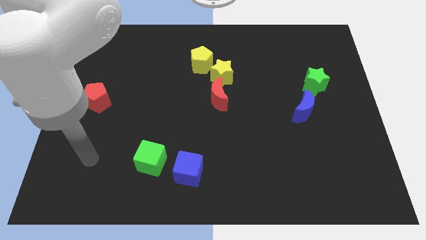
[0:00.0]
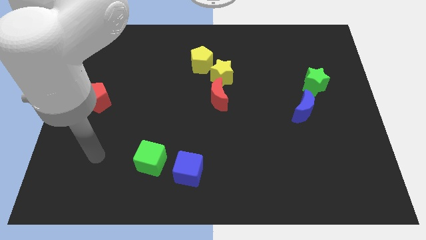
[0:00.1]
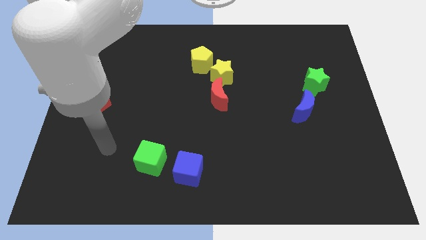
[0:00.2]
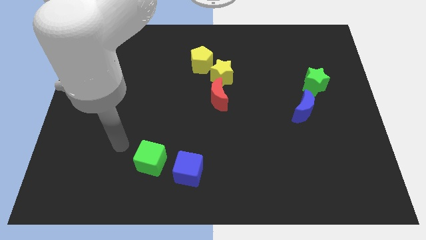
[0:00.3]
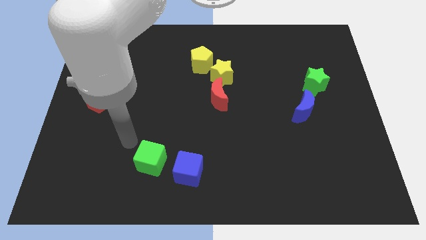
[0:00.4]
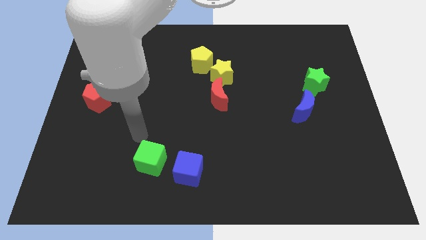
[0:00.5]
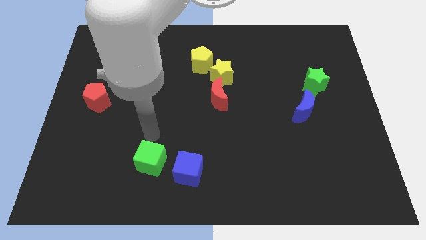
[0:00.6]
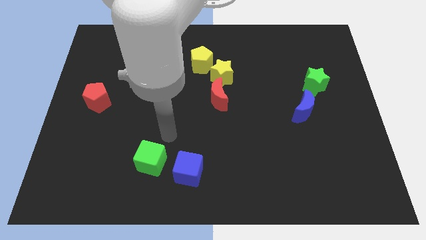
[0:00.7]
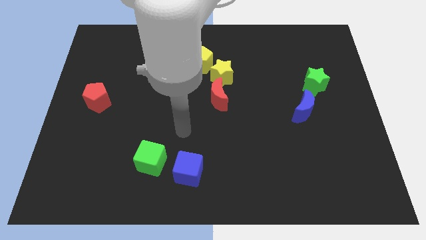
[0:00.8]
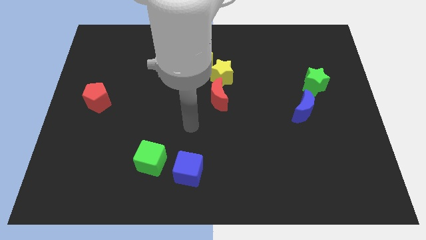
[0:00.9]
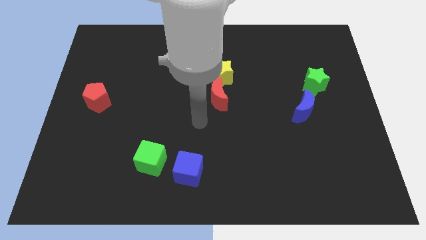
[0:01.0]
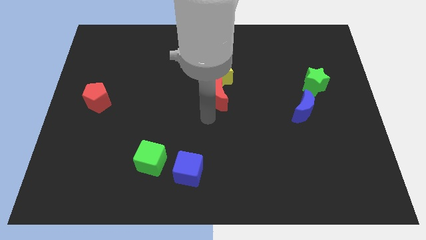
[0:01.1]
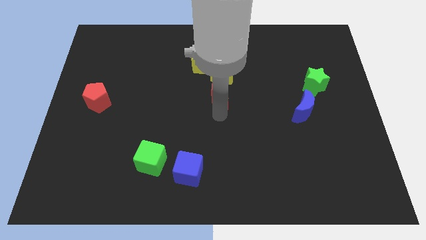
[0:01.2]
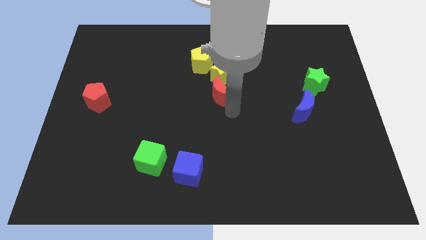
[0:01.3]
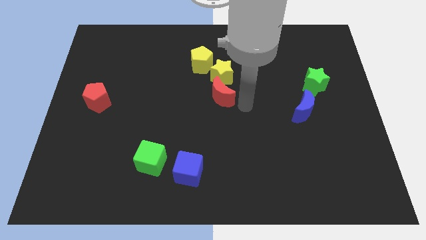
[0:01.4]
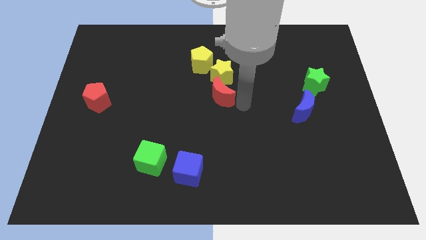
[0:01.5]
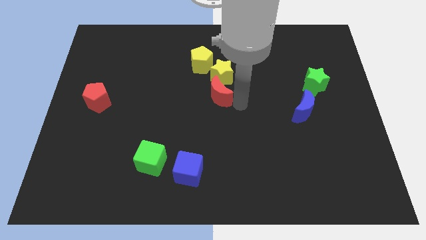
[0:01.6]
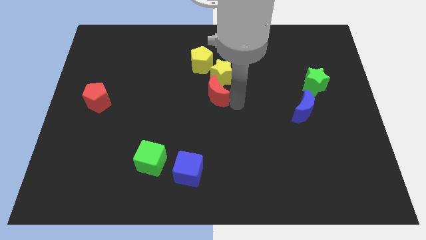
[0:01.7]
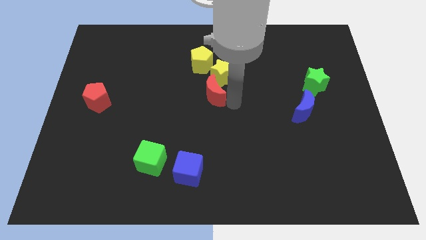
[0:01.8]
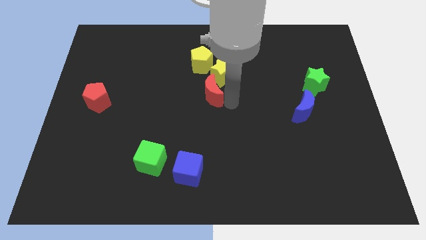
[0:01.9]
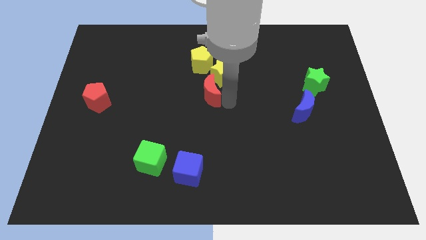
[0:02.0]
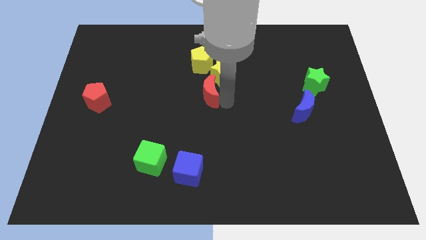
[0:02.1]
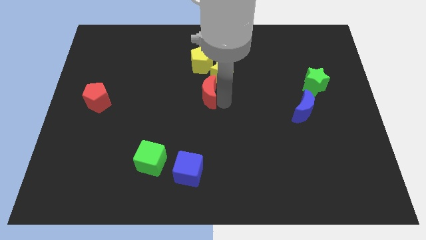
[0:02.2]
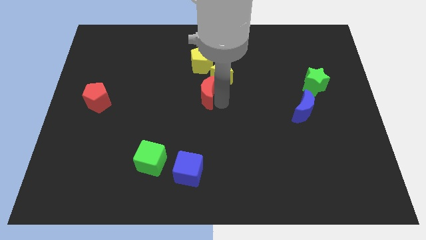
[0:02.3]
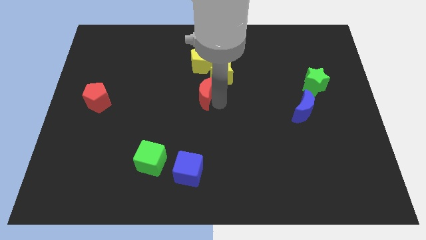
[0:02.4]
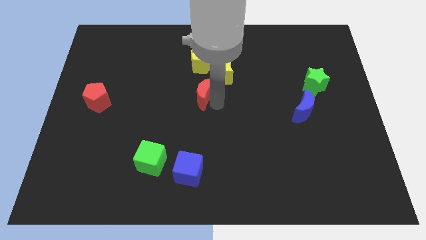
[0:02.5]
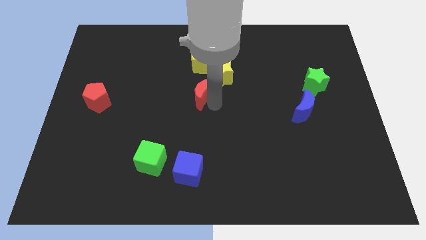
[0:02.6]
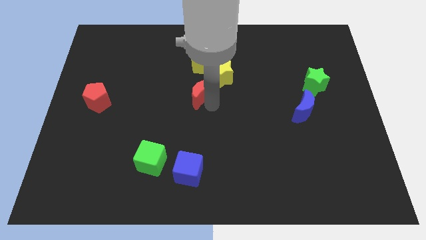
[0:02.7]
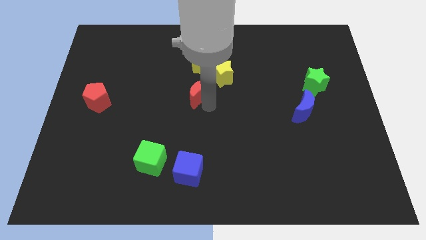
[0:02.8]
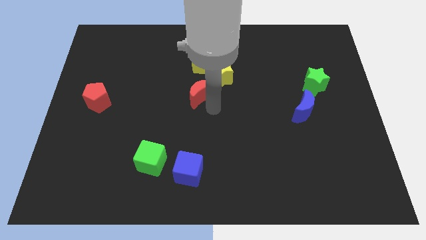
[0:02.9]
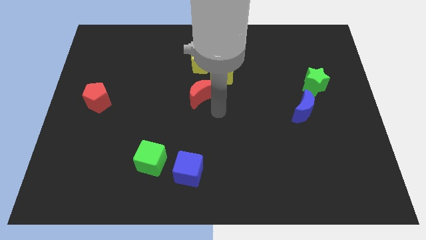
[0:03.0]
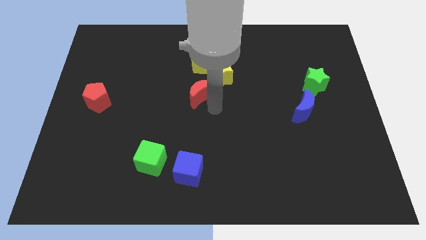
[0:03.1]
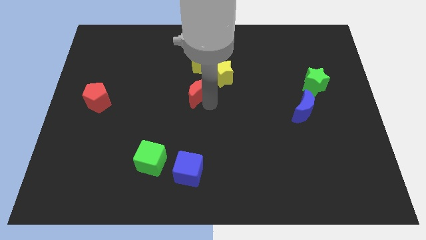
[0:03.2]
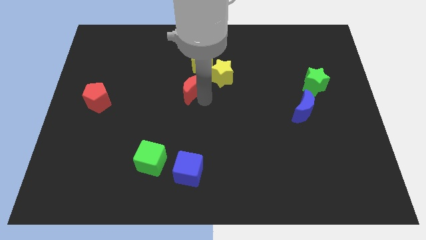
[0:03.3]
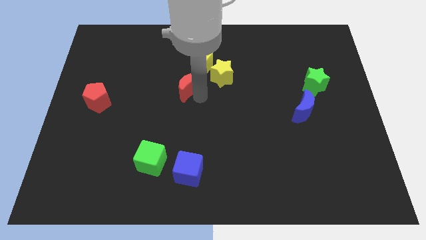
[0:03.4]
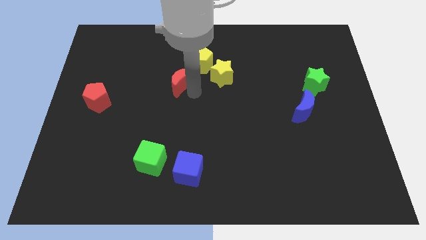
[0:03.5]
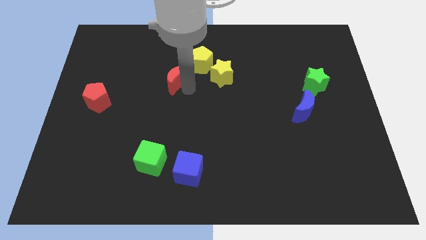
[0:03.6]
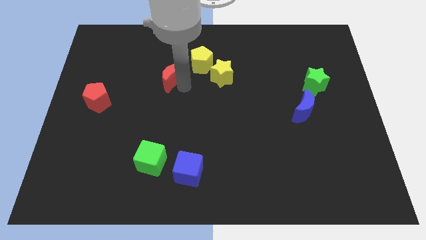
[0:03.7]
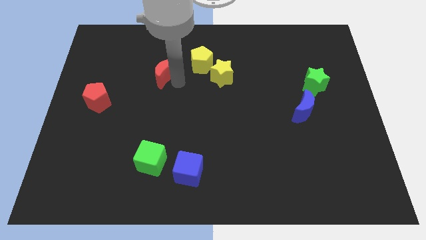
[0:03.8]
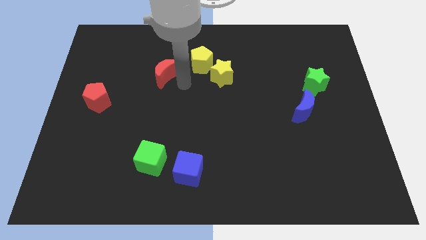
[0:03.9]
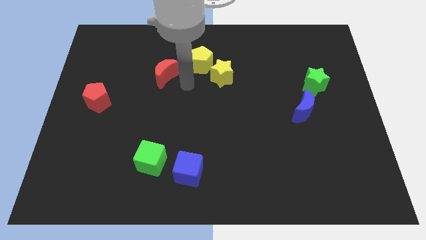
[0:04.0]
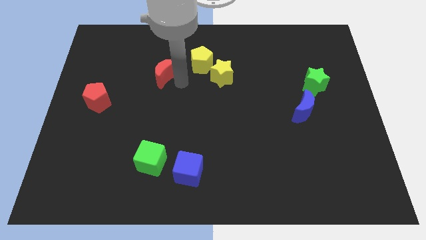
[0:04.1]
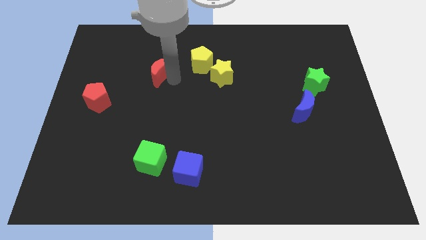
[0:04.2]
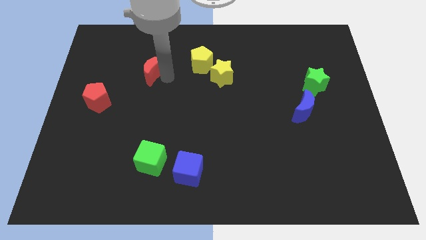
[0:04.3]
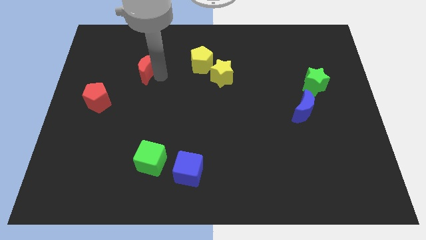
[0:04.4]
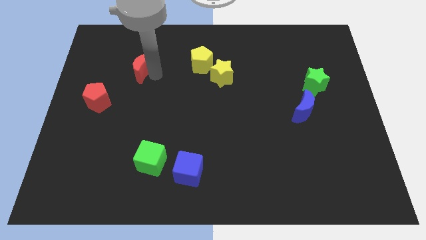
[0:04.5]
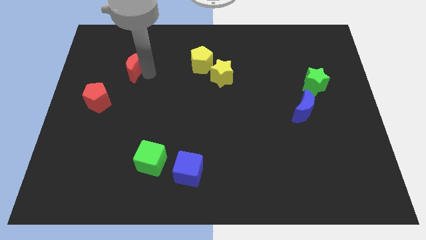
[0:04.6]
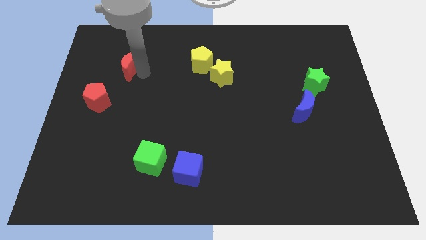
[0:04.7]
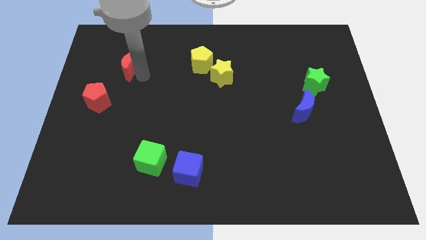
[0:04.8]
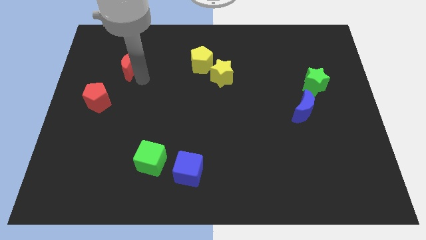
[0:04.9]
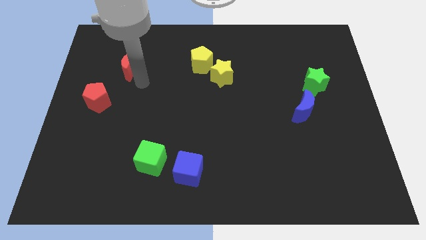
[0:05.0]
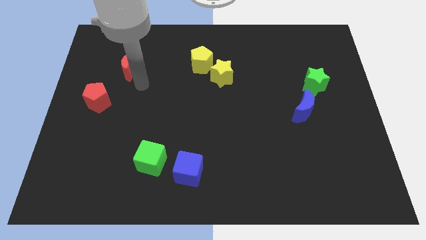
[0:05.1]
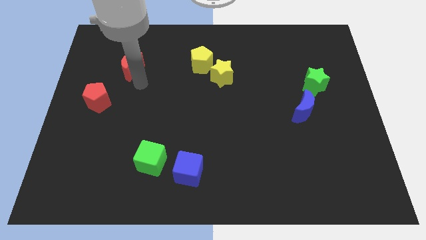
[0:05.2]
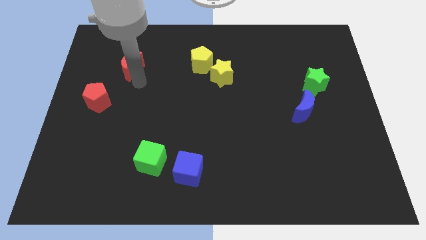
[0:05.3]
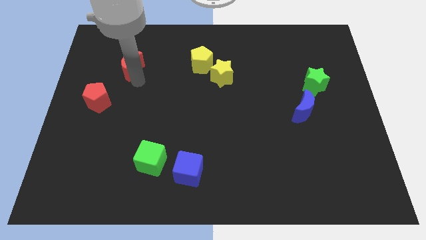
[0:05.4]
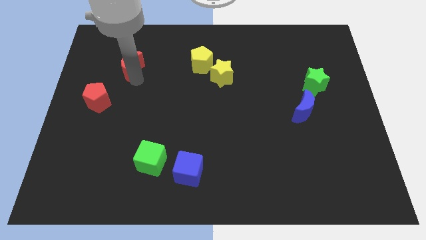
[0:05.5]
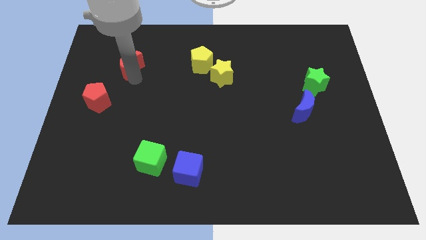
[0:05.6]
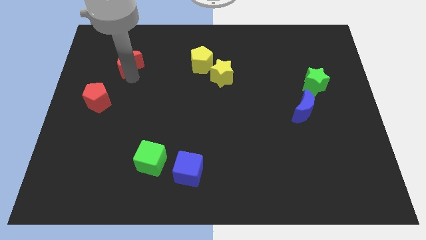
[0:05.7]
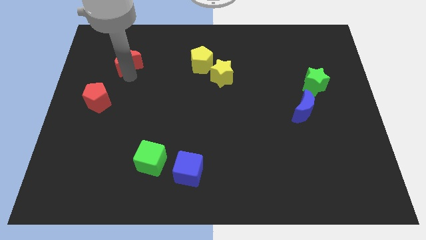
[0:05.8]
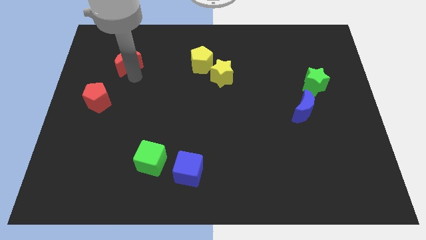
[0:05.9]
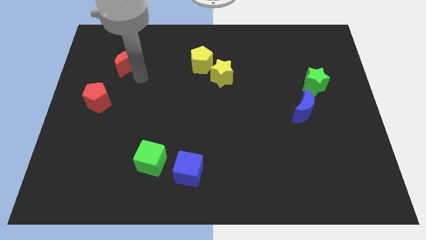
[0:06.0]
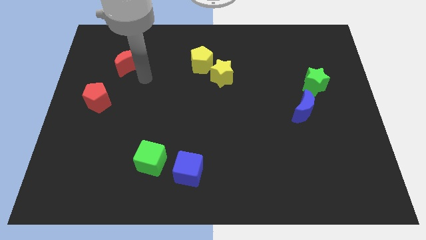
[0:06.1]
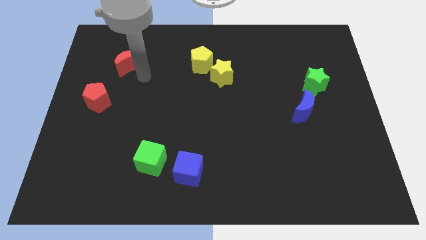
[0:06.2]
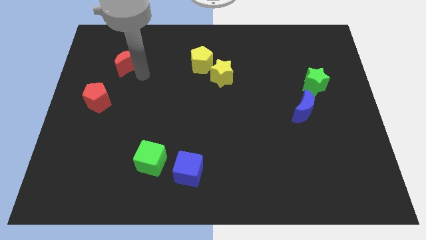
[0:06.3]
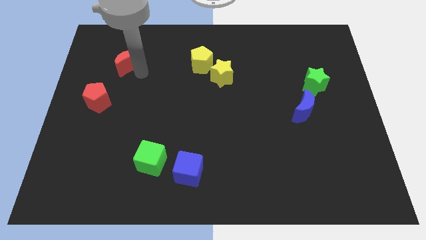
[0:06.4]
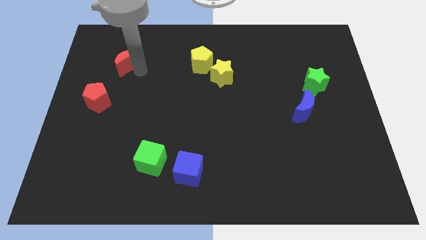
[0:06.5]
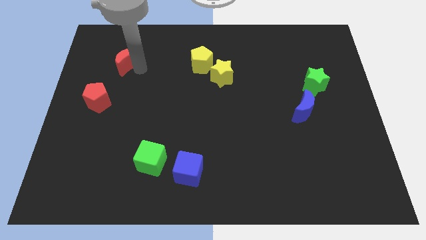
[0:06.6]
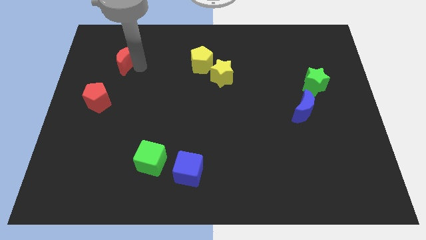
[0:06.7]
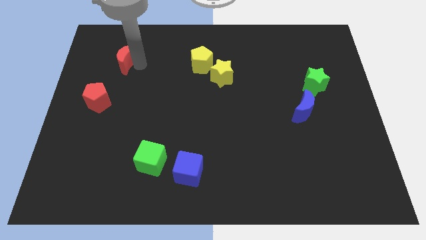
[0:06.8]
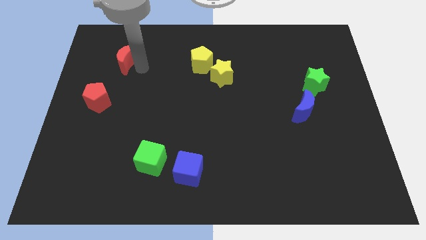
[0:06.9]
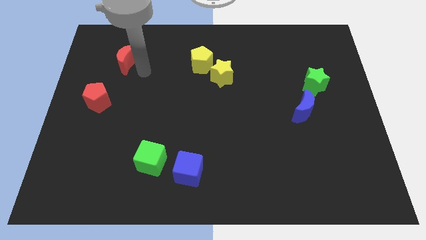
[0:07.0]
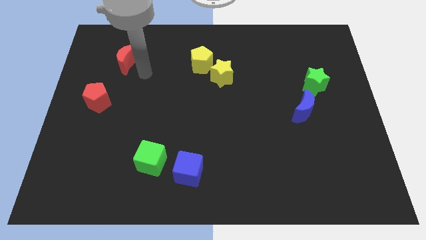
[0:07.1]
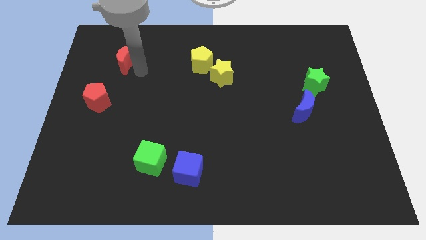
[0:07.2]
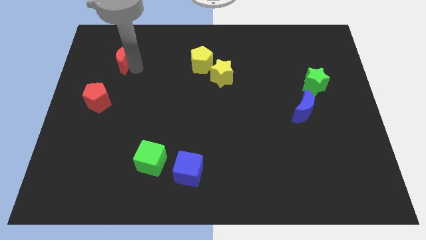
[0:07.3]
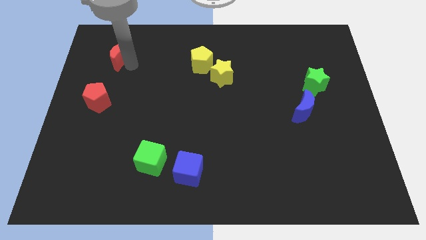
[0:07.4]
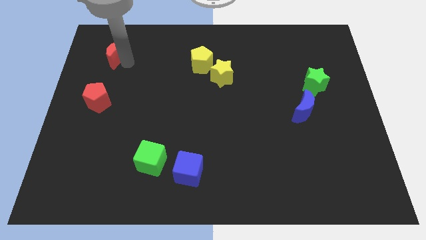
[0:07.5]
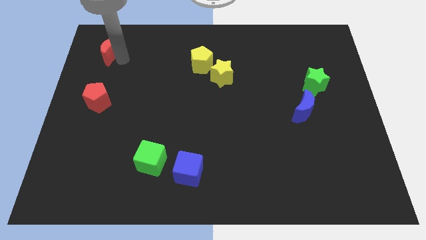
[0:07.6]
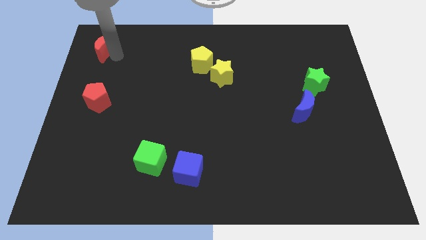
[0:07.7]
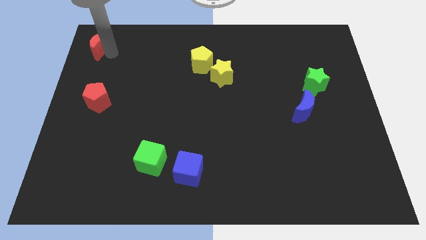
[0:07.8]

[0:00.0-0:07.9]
move the red moon to the upper left corner
